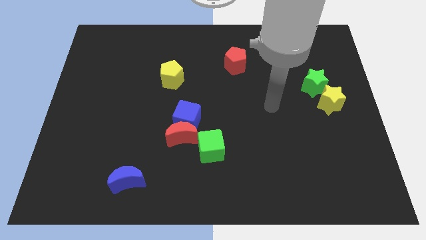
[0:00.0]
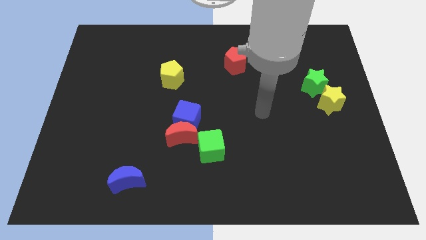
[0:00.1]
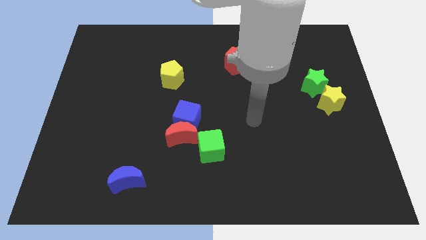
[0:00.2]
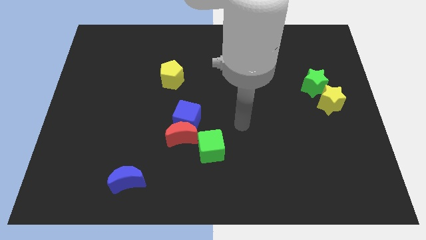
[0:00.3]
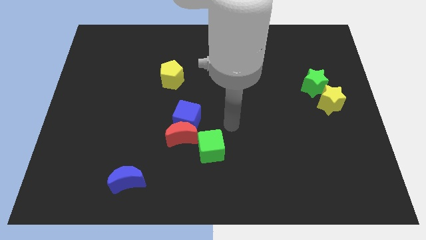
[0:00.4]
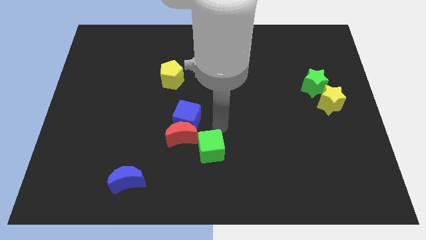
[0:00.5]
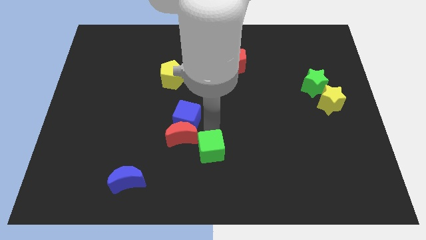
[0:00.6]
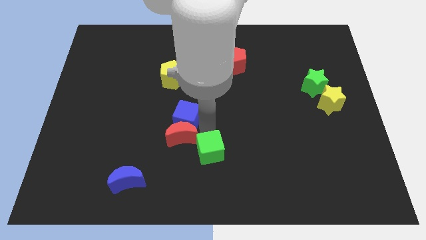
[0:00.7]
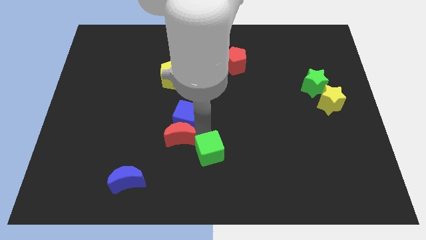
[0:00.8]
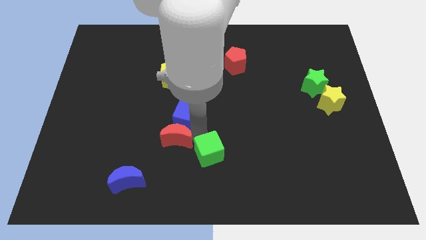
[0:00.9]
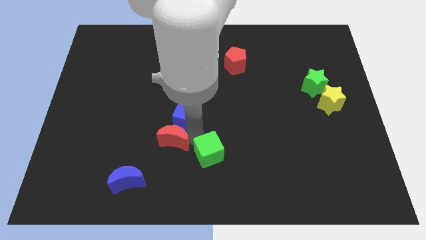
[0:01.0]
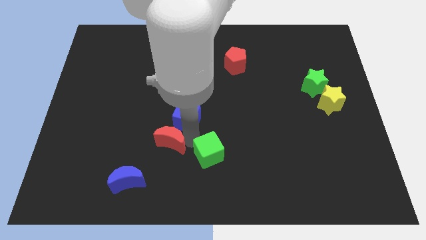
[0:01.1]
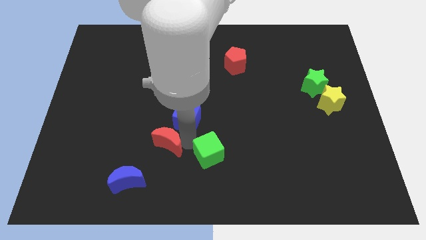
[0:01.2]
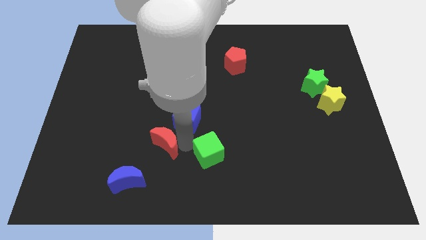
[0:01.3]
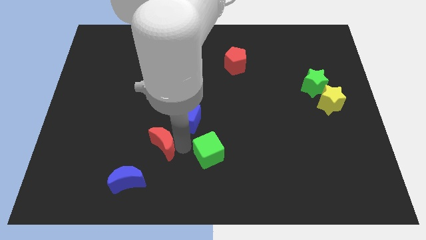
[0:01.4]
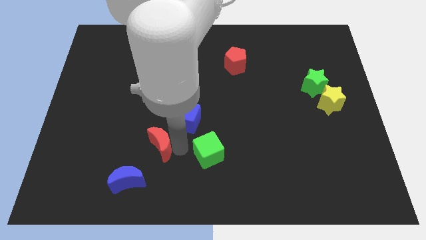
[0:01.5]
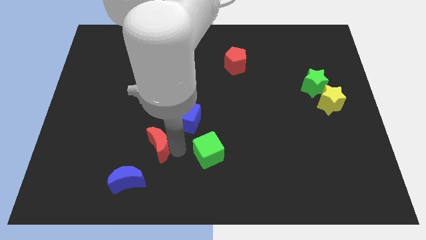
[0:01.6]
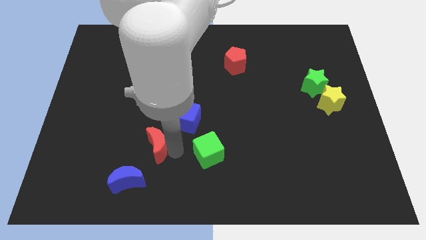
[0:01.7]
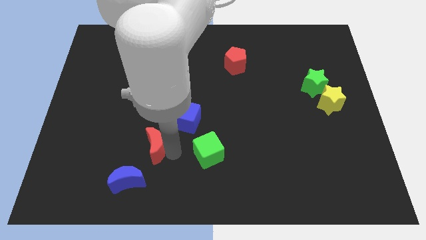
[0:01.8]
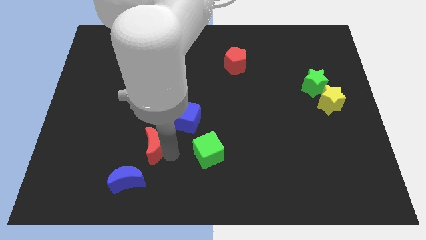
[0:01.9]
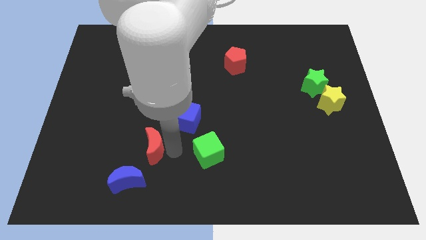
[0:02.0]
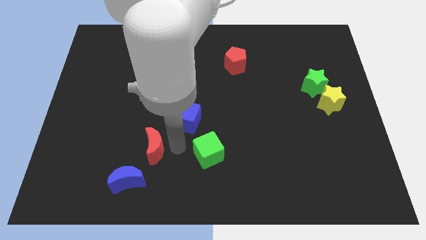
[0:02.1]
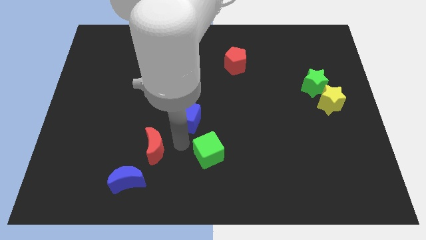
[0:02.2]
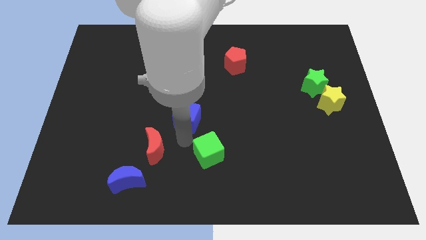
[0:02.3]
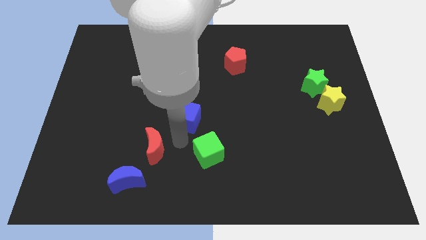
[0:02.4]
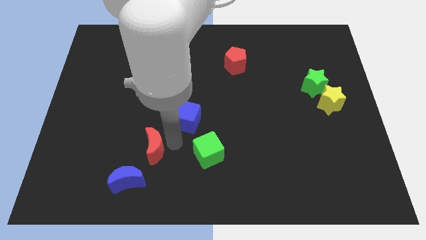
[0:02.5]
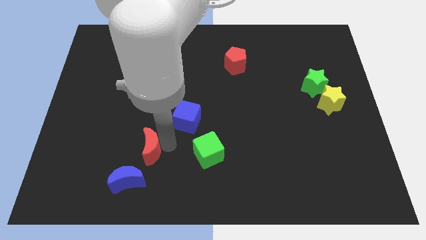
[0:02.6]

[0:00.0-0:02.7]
move the red moon away from the blue cube and green cube

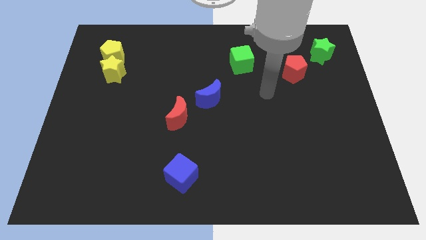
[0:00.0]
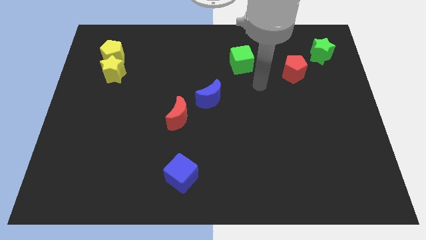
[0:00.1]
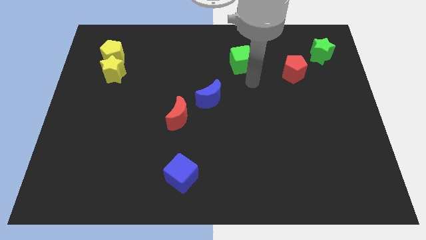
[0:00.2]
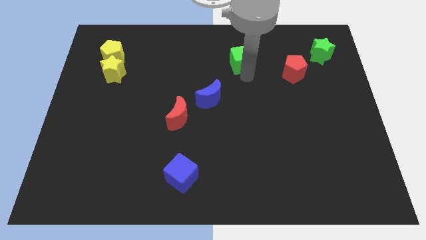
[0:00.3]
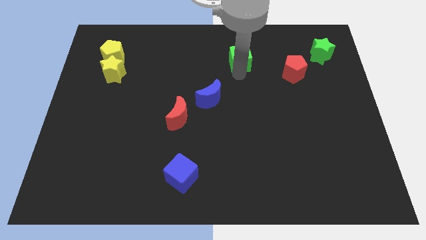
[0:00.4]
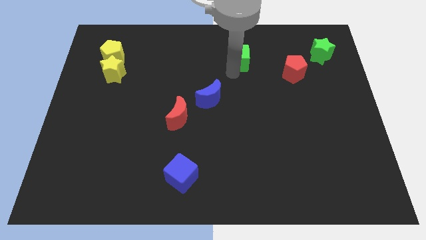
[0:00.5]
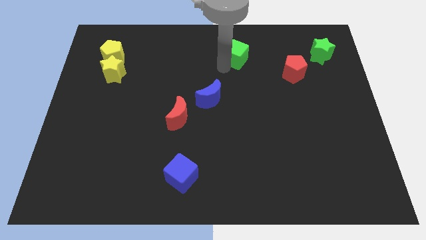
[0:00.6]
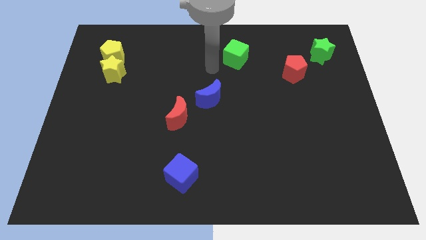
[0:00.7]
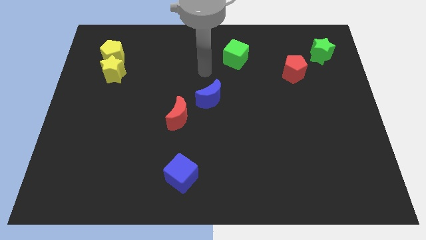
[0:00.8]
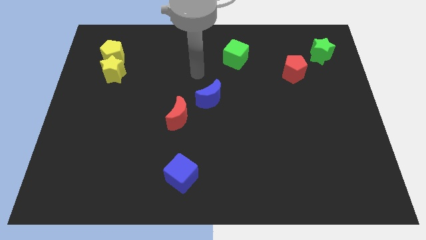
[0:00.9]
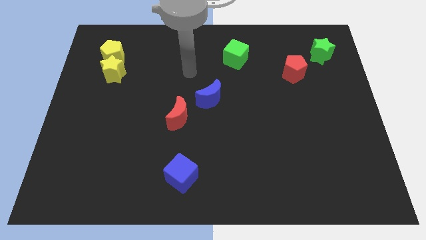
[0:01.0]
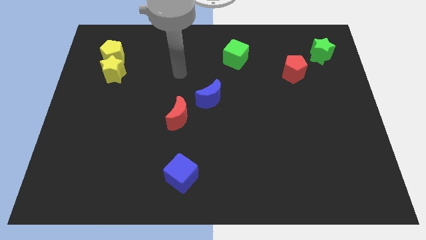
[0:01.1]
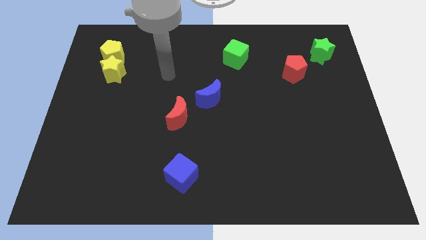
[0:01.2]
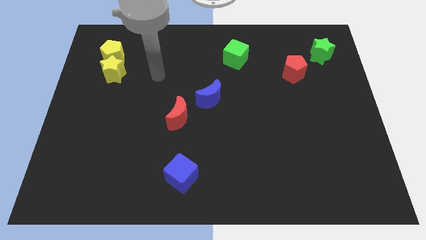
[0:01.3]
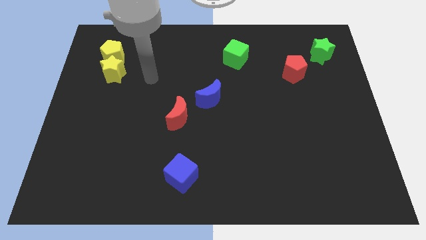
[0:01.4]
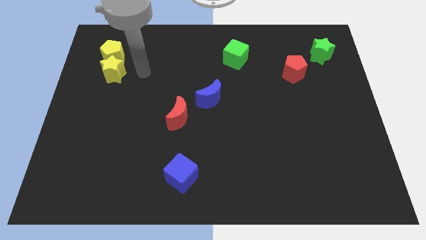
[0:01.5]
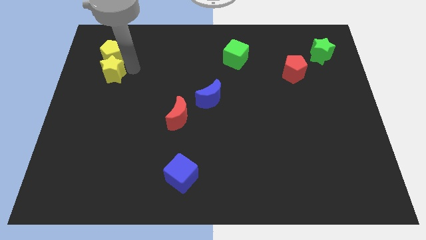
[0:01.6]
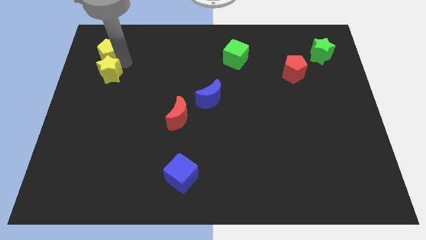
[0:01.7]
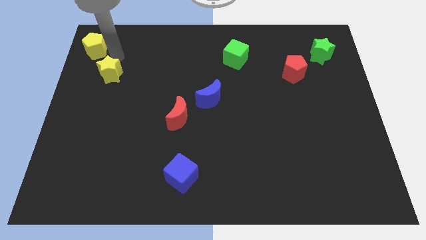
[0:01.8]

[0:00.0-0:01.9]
move the yellow star away from the yellow pentagon

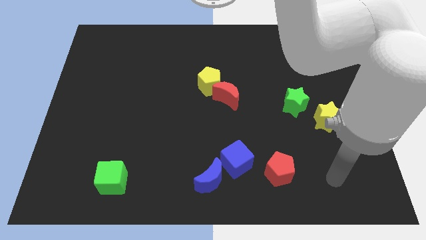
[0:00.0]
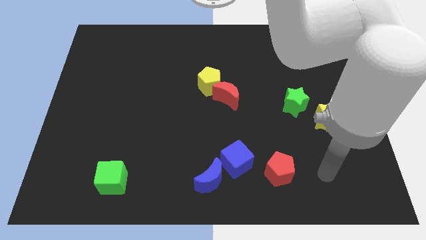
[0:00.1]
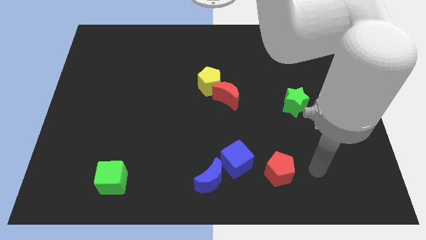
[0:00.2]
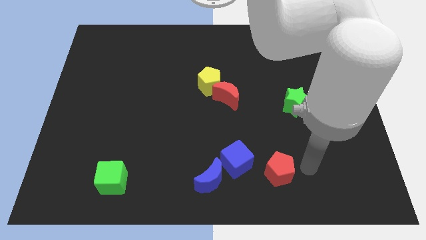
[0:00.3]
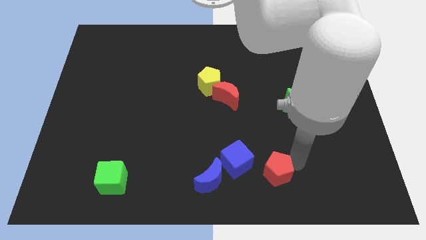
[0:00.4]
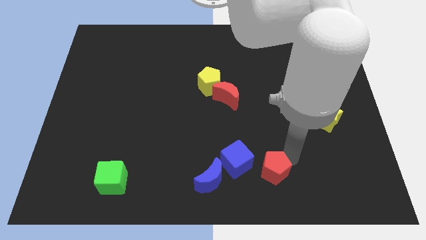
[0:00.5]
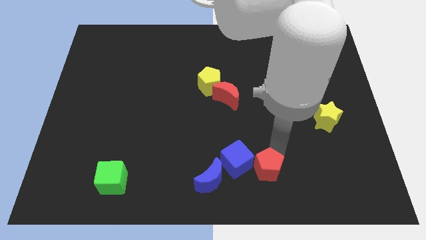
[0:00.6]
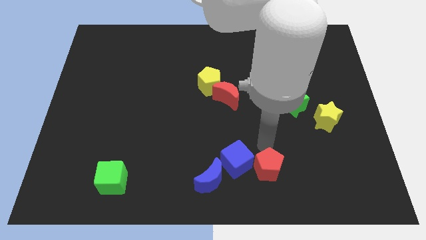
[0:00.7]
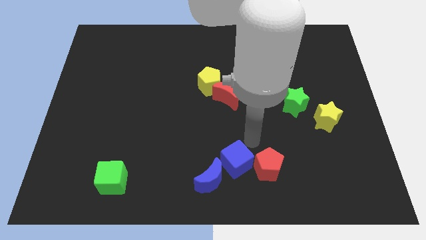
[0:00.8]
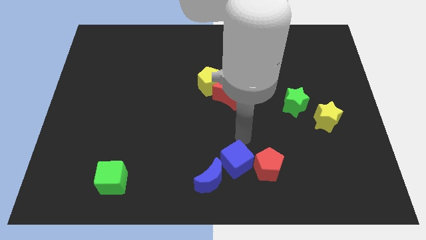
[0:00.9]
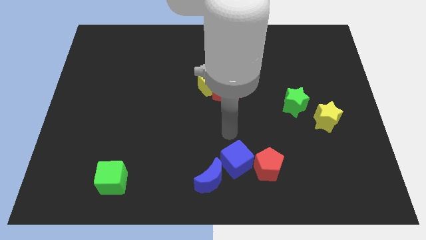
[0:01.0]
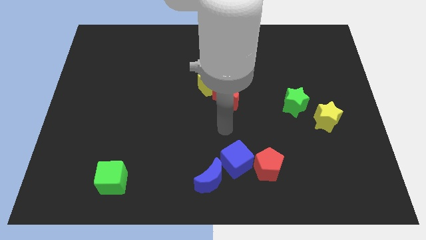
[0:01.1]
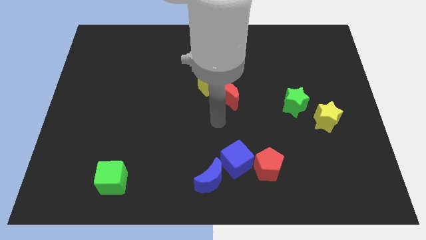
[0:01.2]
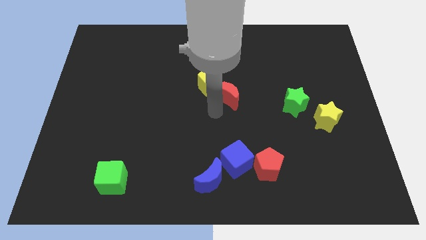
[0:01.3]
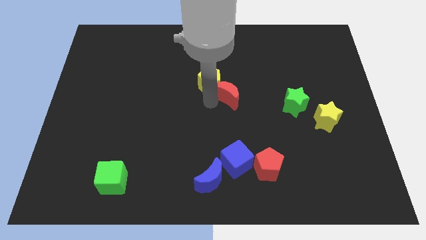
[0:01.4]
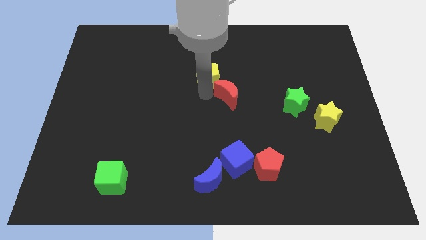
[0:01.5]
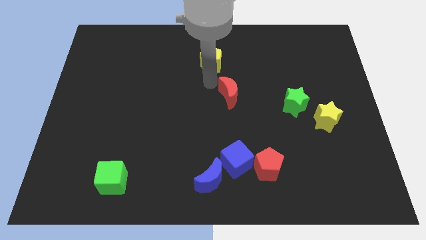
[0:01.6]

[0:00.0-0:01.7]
pull the red moon apart from the yellow pentagon

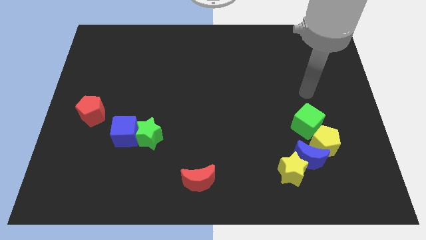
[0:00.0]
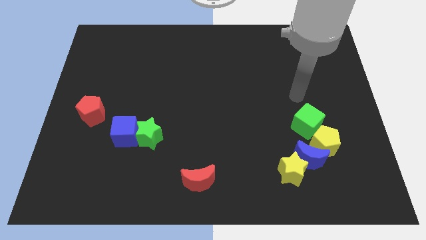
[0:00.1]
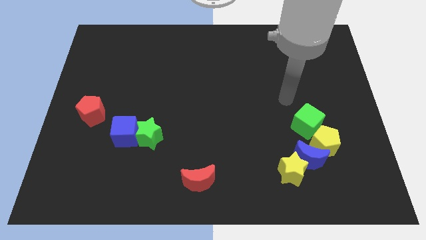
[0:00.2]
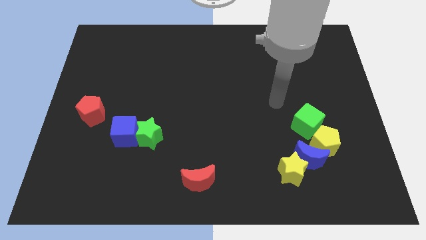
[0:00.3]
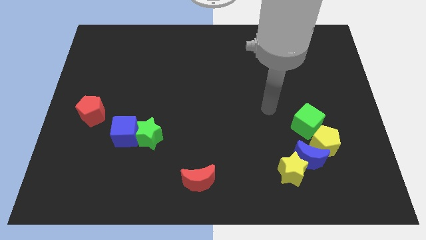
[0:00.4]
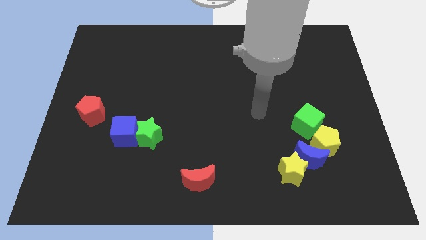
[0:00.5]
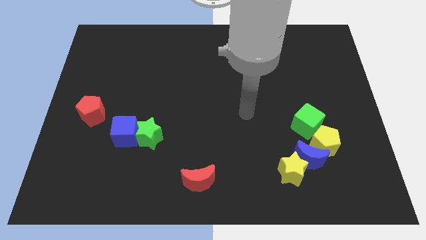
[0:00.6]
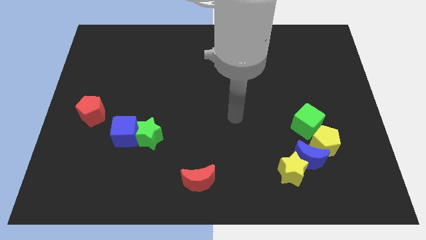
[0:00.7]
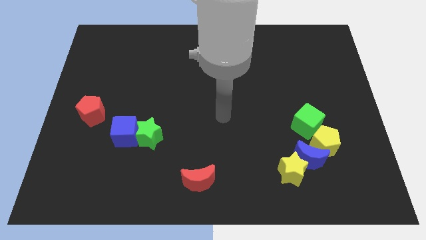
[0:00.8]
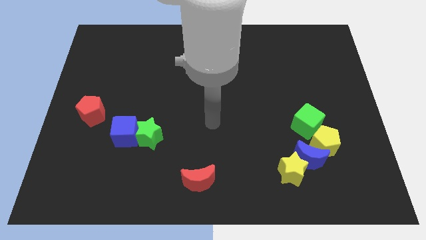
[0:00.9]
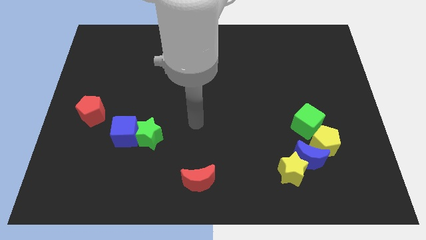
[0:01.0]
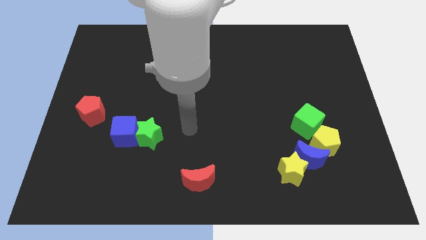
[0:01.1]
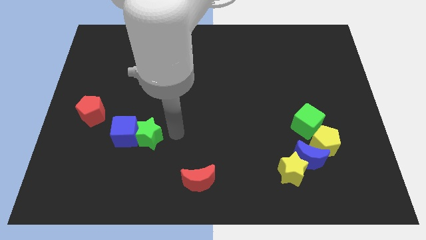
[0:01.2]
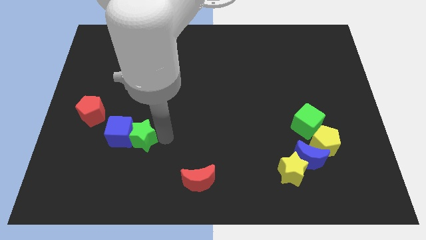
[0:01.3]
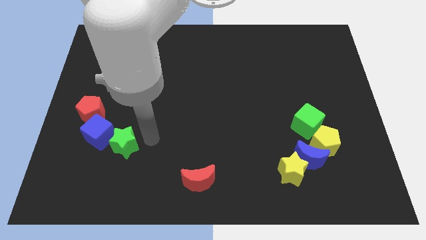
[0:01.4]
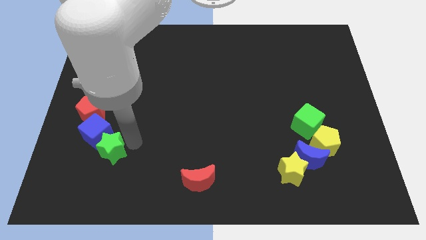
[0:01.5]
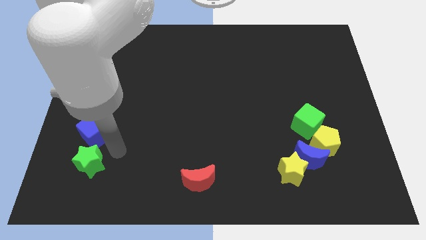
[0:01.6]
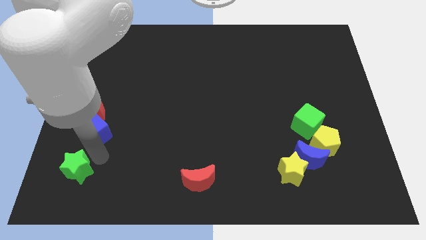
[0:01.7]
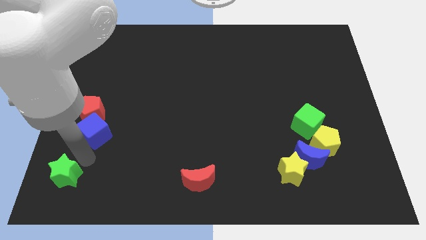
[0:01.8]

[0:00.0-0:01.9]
pull the blue cube apart from the green star

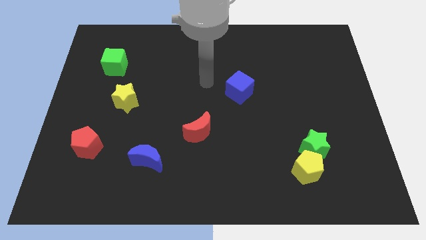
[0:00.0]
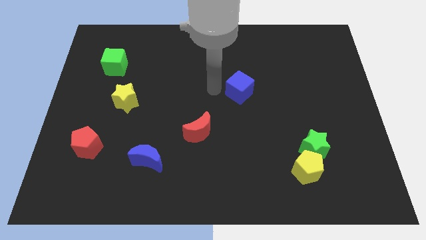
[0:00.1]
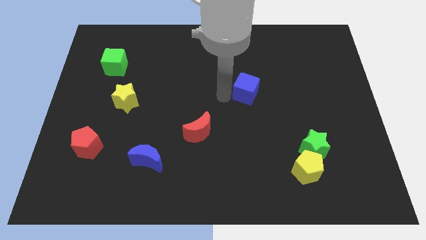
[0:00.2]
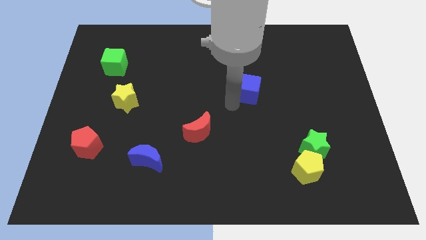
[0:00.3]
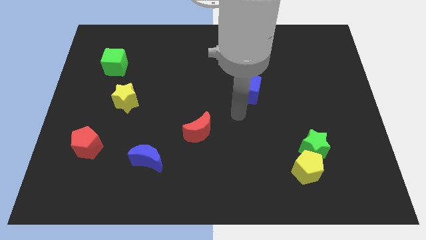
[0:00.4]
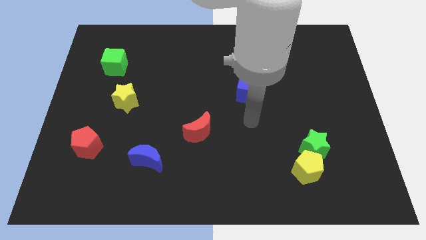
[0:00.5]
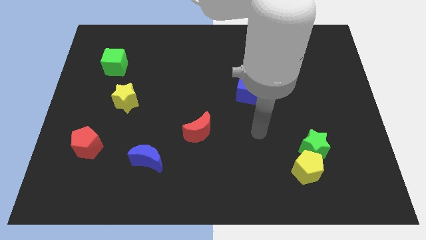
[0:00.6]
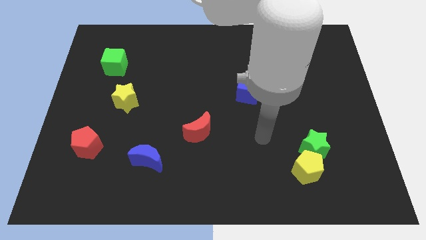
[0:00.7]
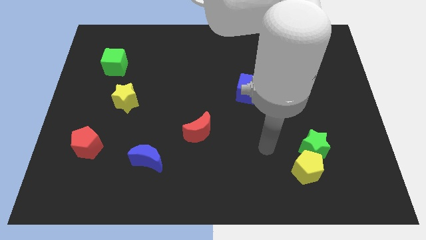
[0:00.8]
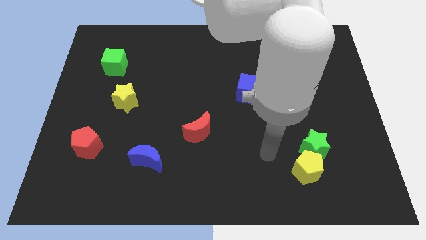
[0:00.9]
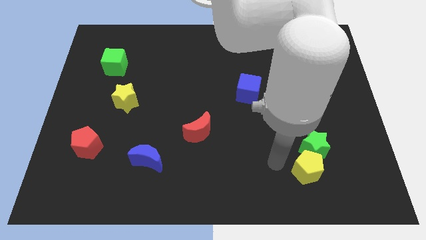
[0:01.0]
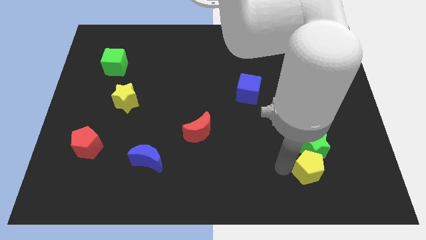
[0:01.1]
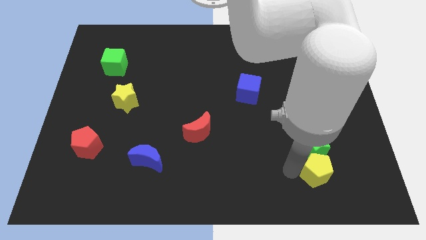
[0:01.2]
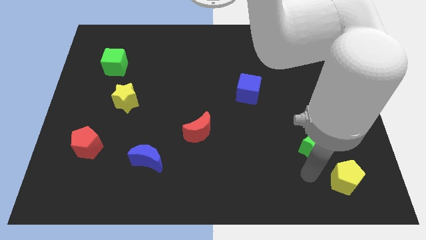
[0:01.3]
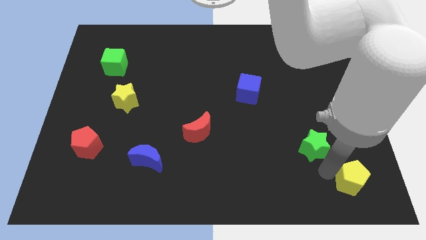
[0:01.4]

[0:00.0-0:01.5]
separate the green star from the yellow pentagon
